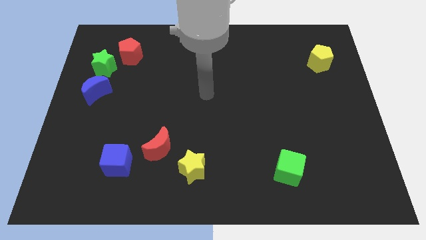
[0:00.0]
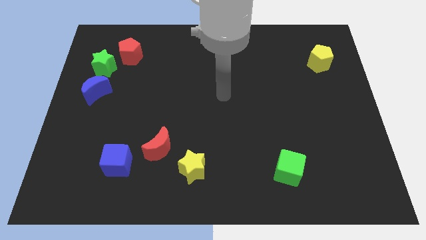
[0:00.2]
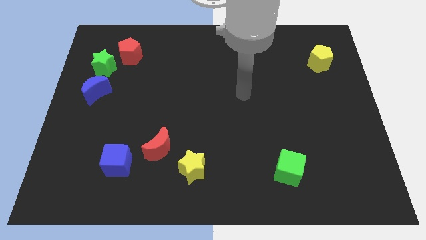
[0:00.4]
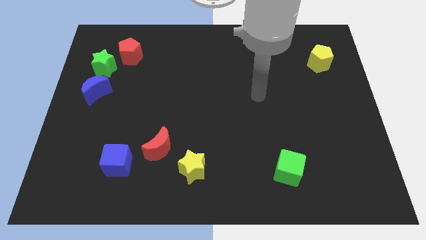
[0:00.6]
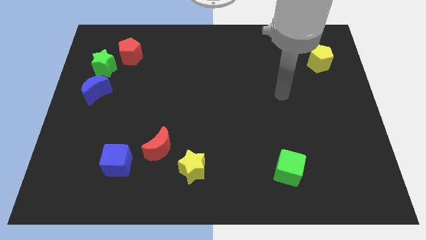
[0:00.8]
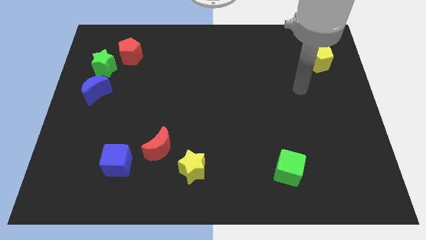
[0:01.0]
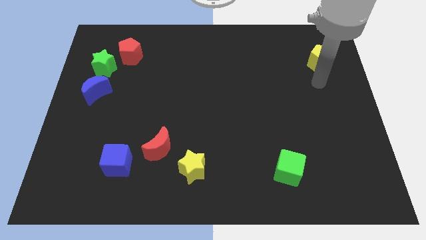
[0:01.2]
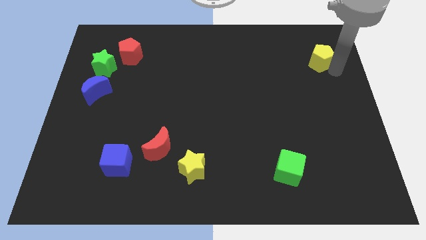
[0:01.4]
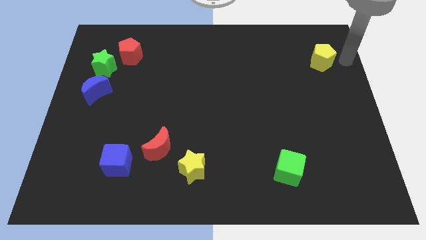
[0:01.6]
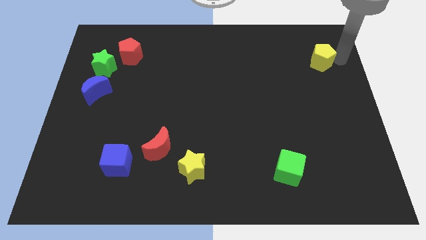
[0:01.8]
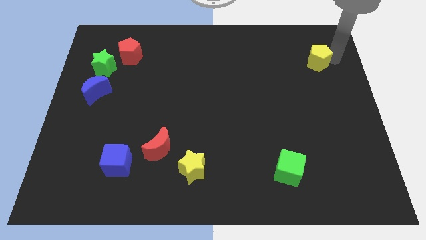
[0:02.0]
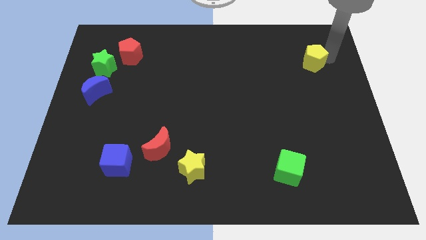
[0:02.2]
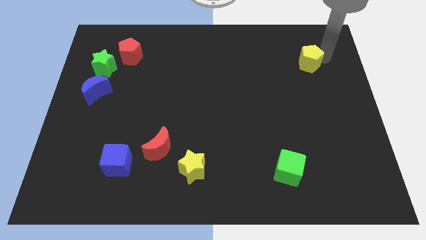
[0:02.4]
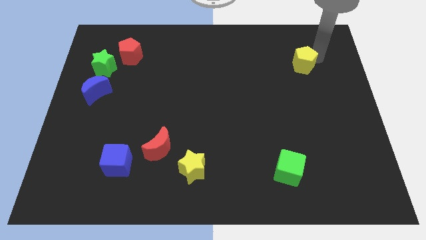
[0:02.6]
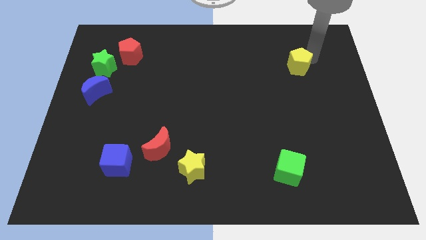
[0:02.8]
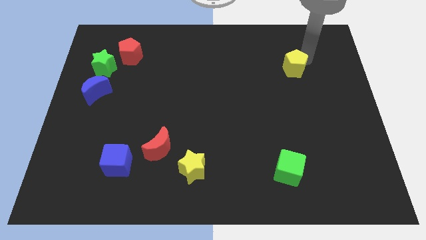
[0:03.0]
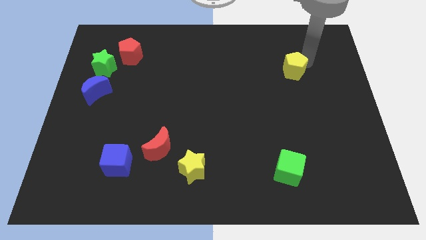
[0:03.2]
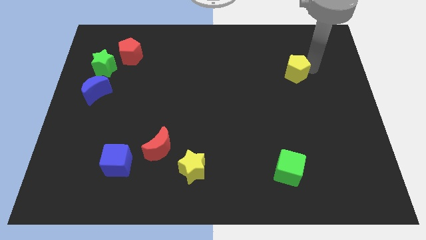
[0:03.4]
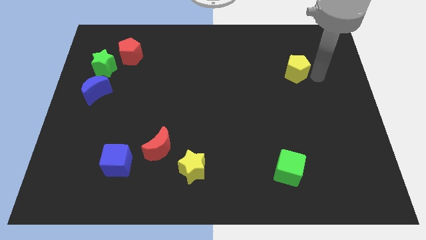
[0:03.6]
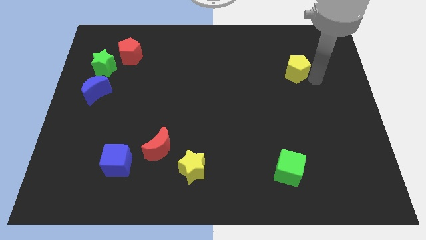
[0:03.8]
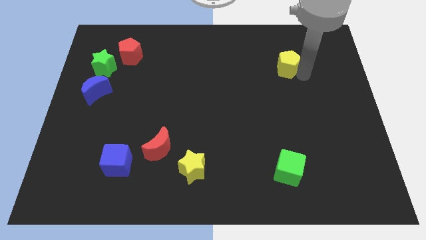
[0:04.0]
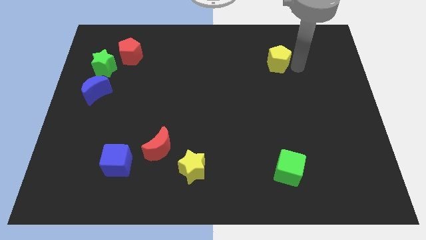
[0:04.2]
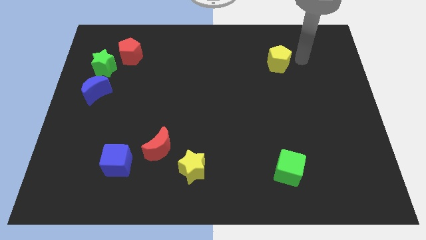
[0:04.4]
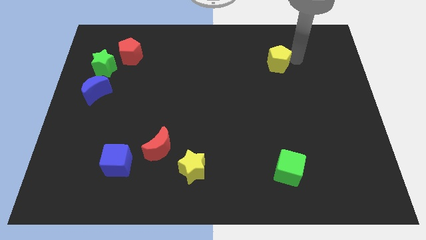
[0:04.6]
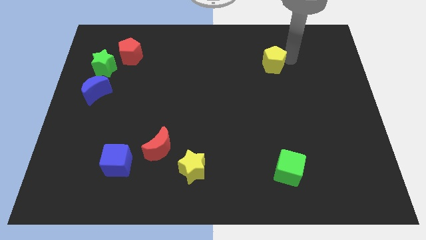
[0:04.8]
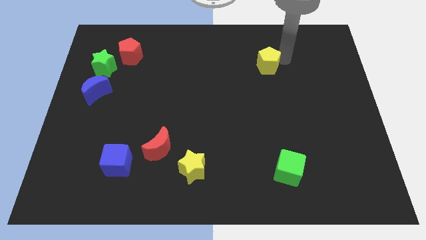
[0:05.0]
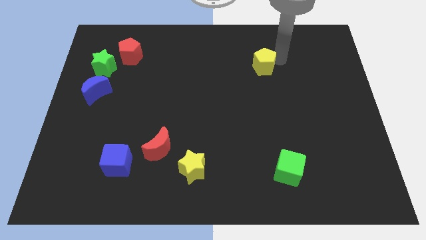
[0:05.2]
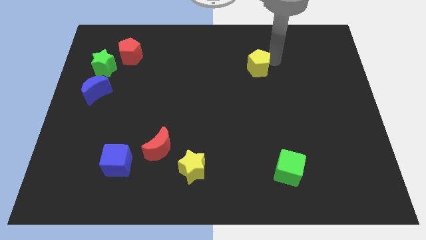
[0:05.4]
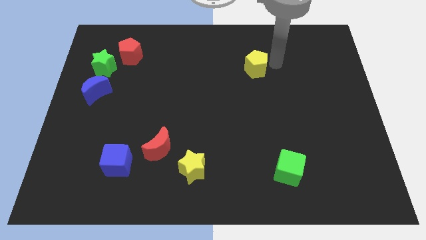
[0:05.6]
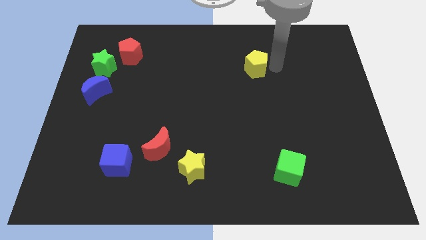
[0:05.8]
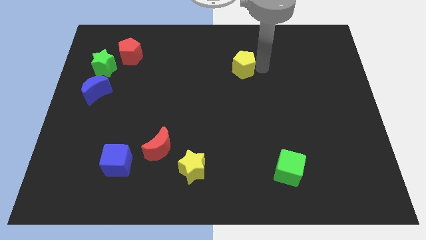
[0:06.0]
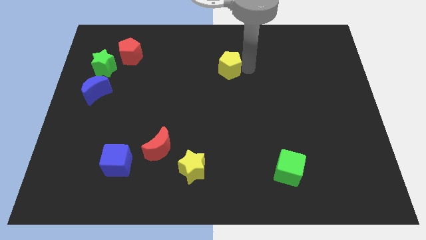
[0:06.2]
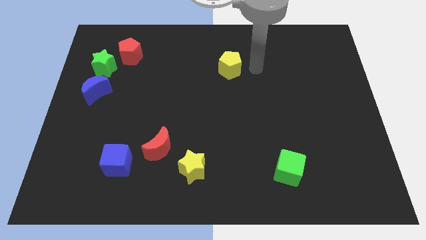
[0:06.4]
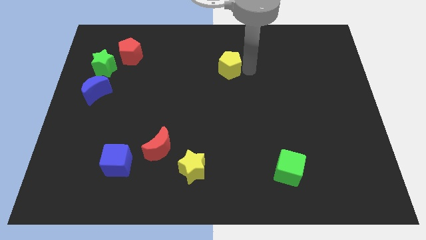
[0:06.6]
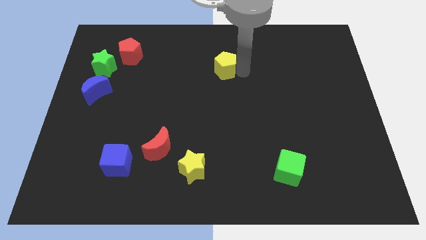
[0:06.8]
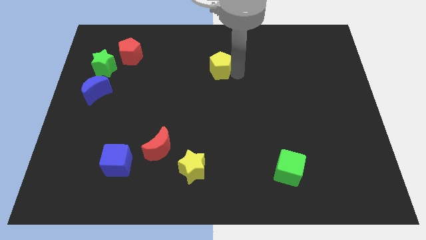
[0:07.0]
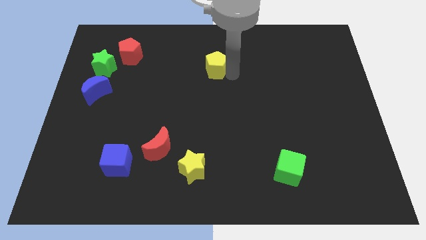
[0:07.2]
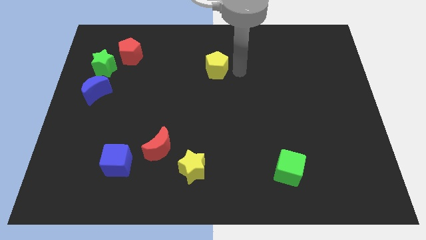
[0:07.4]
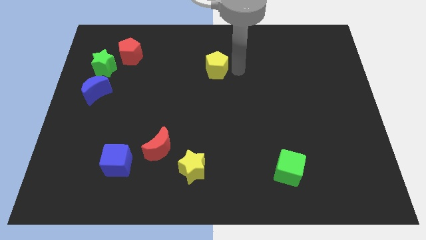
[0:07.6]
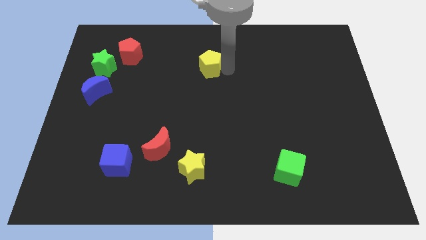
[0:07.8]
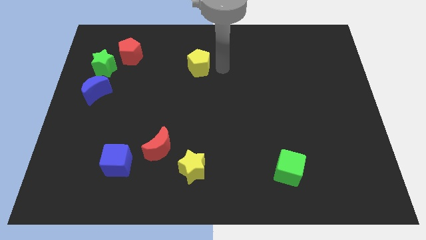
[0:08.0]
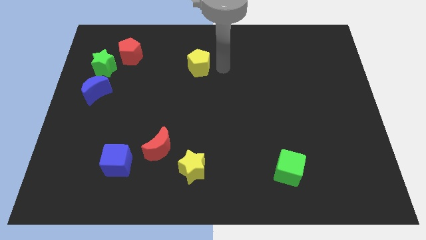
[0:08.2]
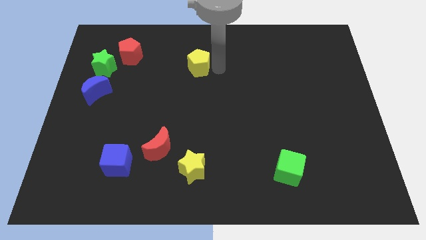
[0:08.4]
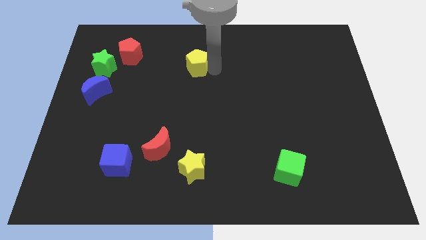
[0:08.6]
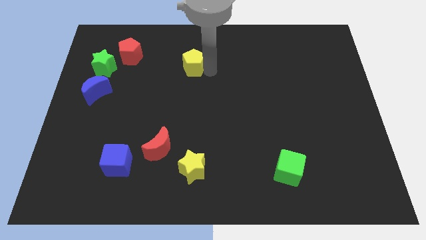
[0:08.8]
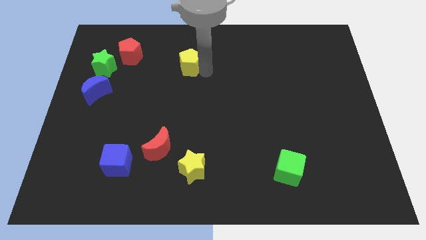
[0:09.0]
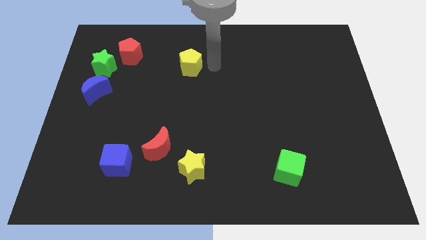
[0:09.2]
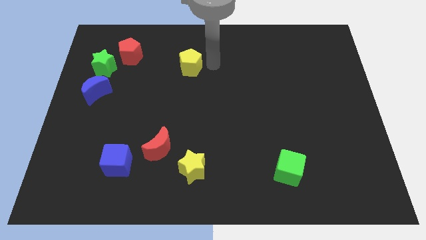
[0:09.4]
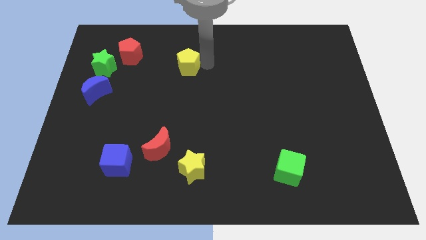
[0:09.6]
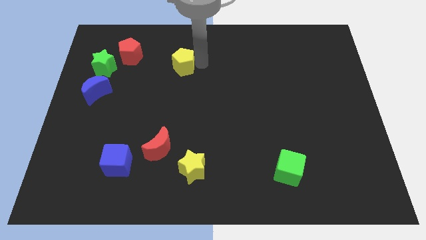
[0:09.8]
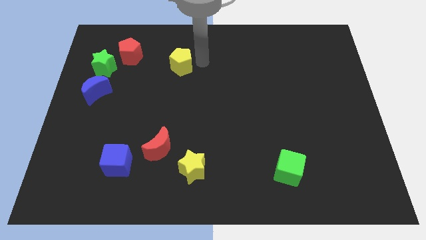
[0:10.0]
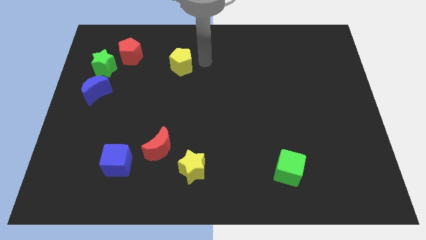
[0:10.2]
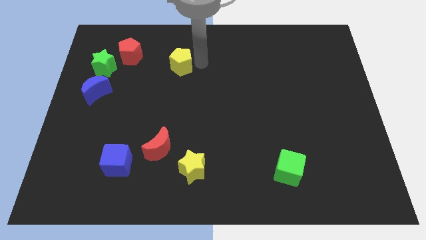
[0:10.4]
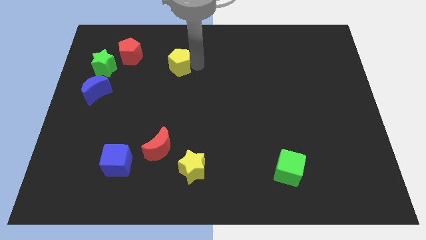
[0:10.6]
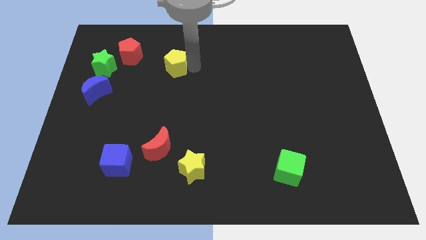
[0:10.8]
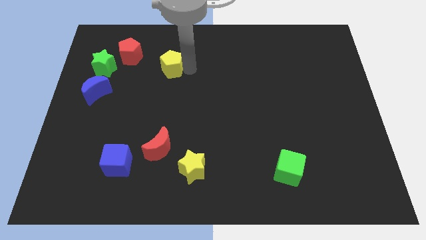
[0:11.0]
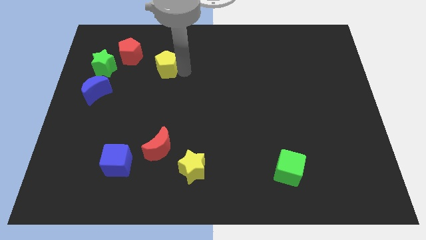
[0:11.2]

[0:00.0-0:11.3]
put the yellow pentagon to the bottom right of the red pentagon

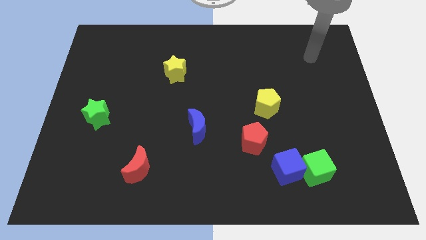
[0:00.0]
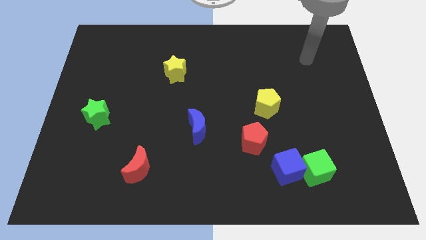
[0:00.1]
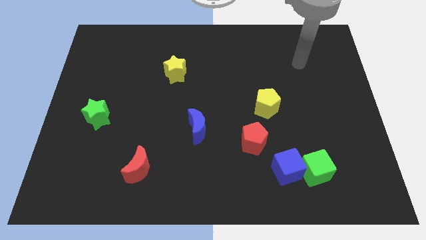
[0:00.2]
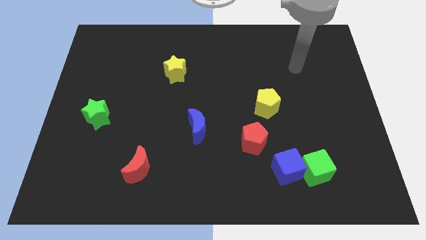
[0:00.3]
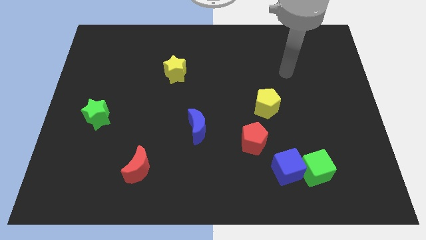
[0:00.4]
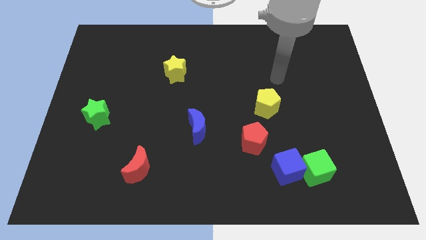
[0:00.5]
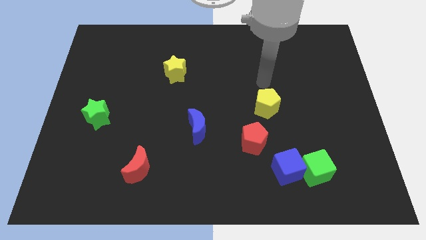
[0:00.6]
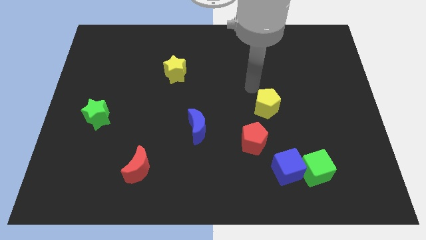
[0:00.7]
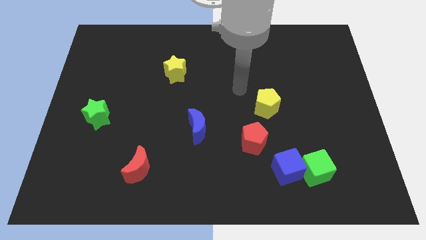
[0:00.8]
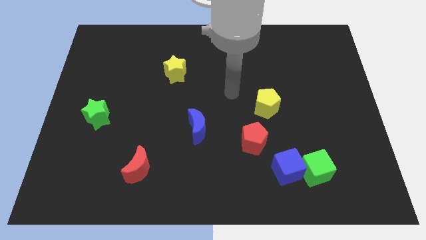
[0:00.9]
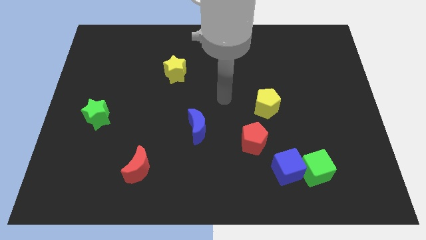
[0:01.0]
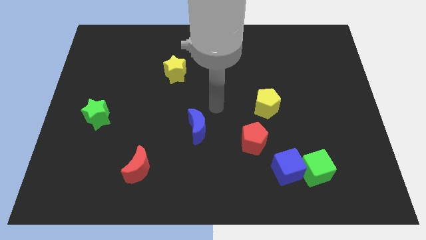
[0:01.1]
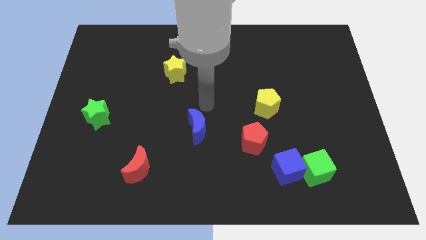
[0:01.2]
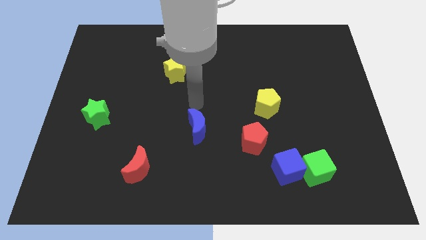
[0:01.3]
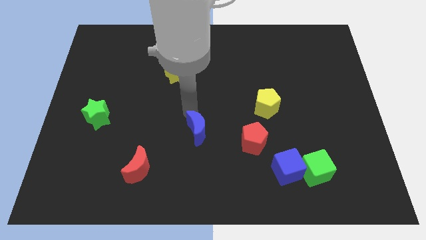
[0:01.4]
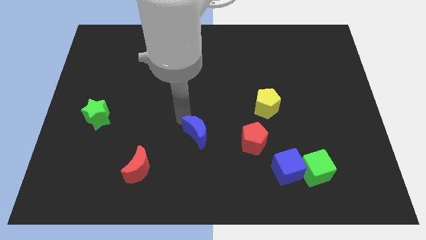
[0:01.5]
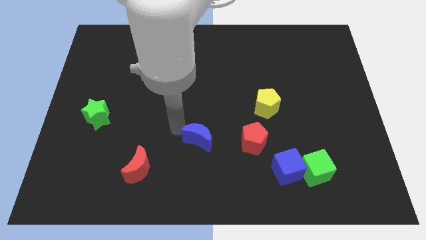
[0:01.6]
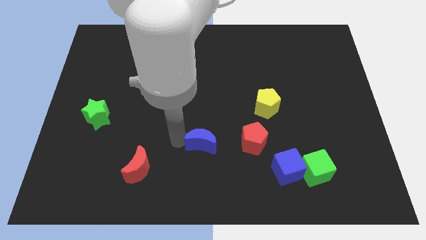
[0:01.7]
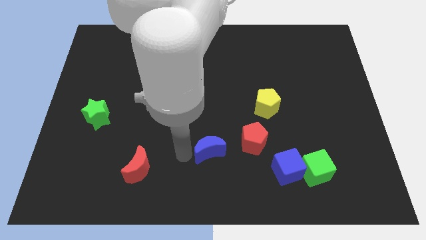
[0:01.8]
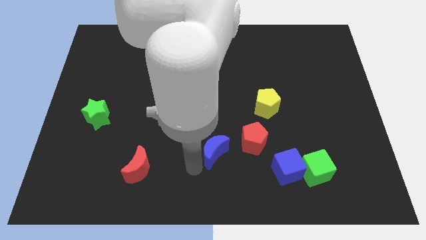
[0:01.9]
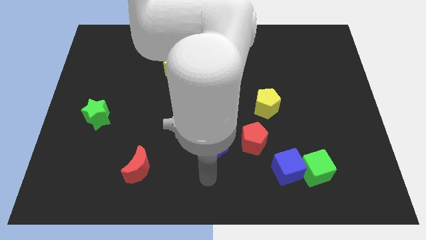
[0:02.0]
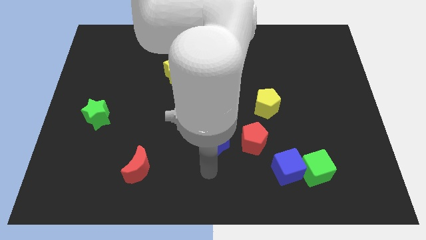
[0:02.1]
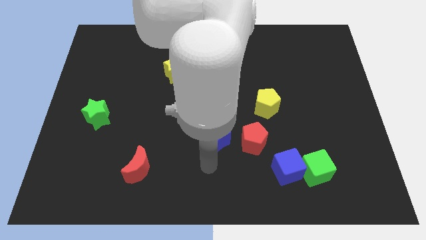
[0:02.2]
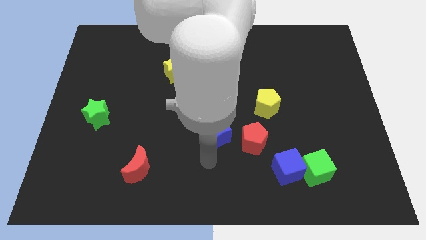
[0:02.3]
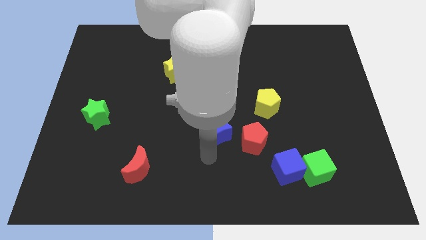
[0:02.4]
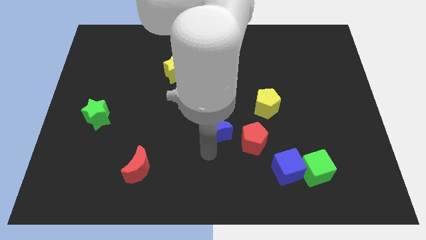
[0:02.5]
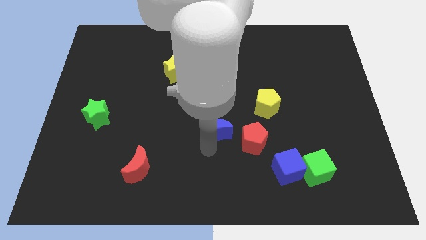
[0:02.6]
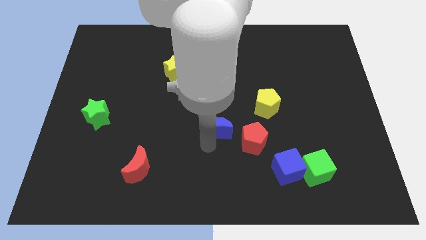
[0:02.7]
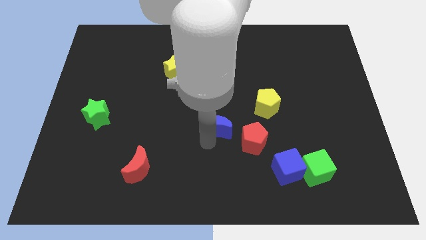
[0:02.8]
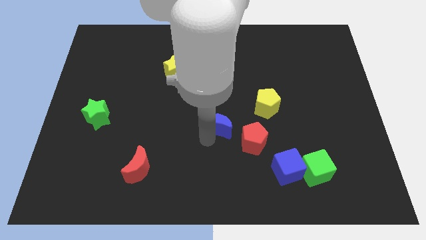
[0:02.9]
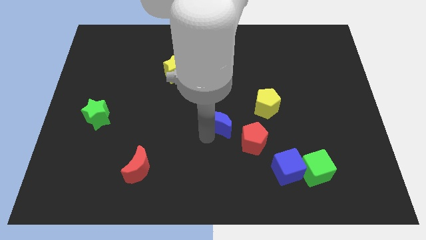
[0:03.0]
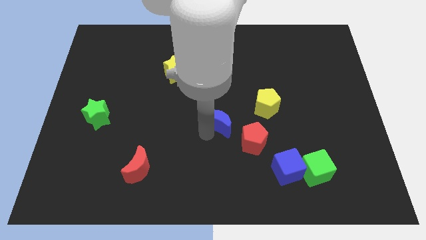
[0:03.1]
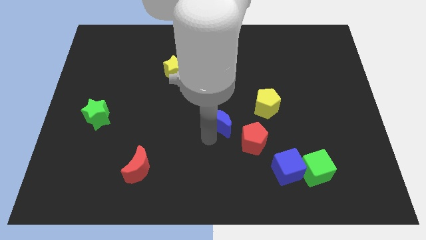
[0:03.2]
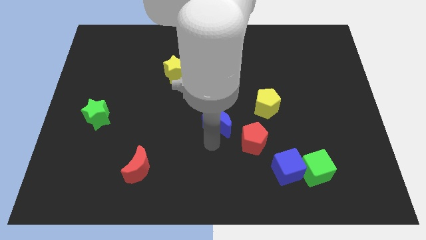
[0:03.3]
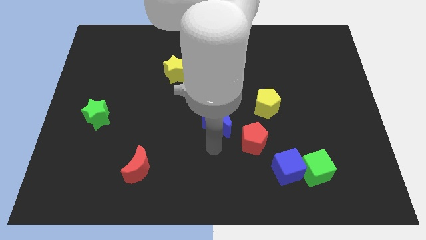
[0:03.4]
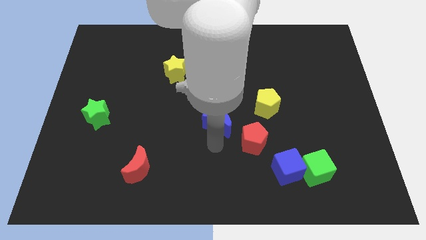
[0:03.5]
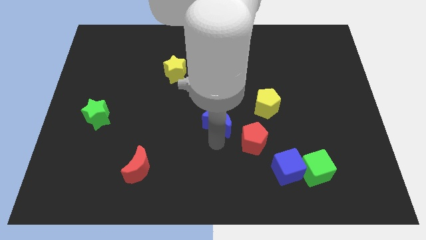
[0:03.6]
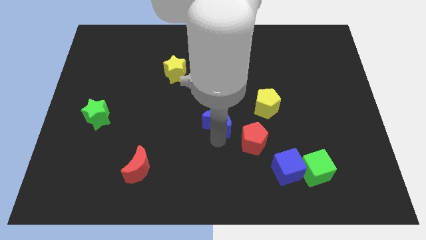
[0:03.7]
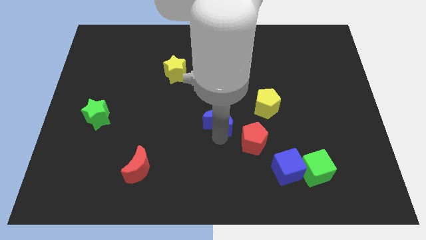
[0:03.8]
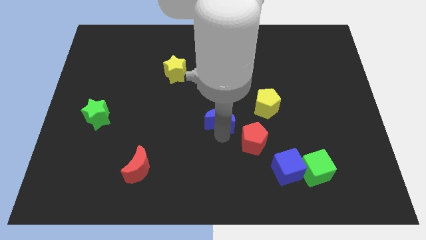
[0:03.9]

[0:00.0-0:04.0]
slide the blue moon to the left side of the yellow pentagon
